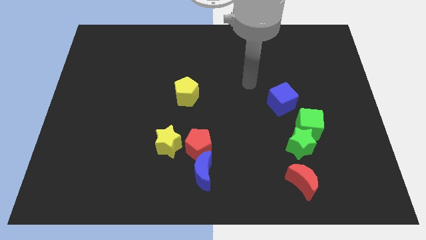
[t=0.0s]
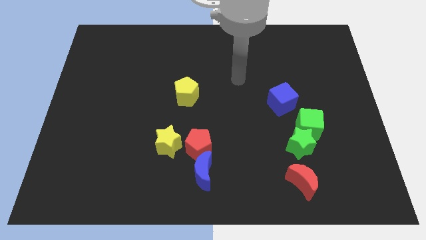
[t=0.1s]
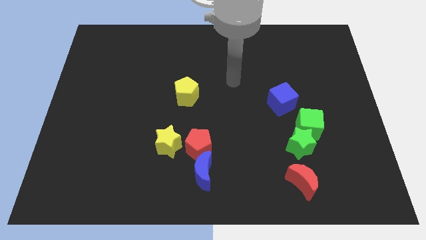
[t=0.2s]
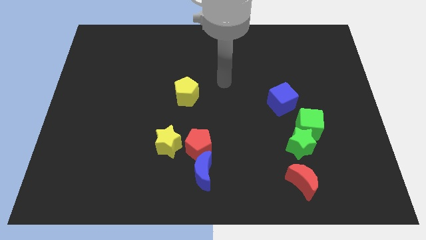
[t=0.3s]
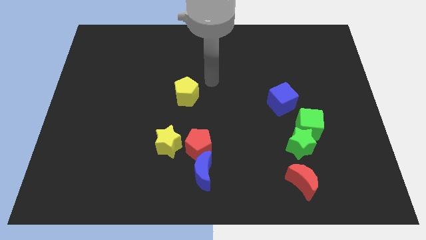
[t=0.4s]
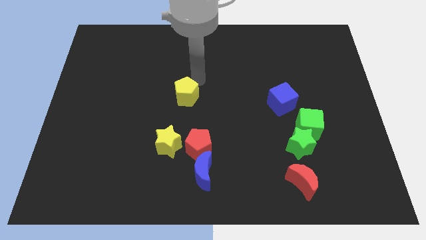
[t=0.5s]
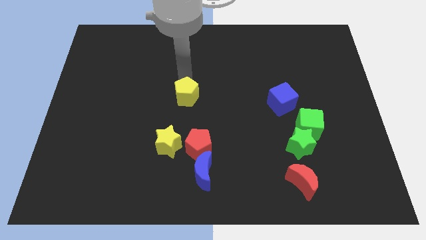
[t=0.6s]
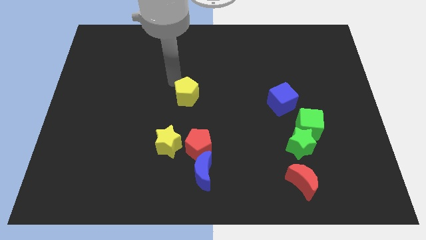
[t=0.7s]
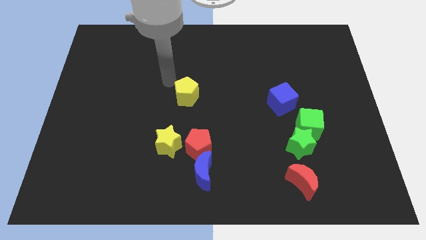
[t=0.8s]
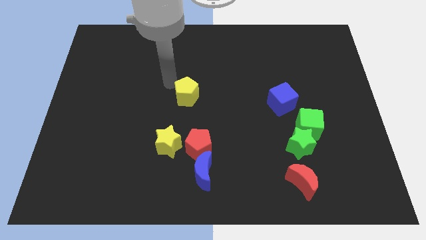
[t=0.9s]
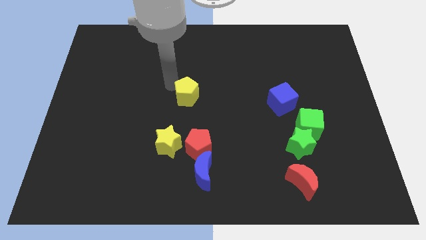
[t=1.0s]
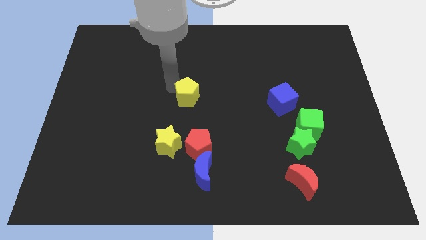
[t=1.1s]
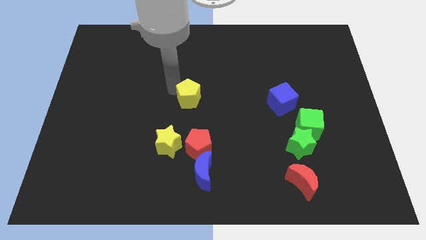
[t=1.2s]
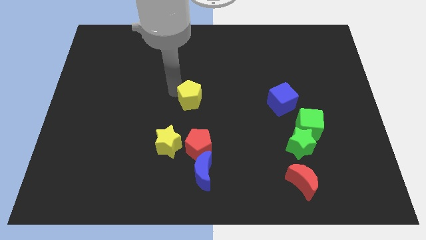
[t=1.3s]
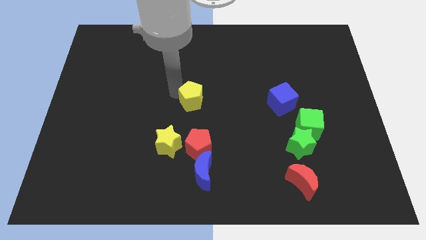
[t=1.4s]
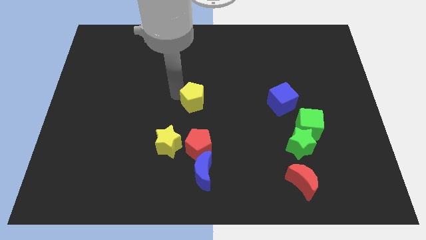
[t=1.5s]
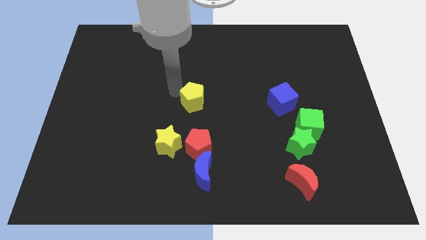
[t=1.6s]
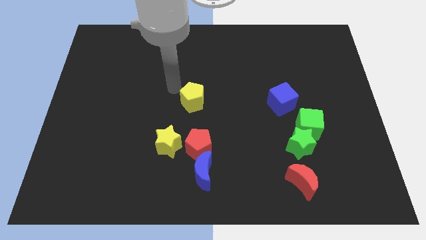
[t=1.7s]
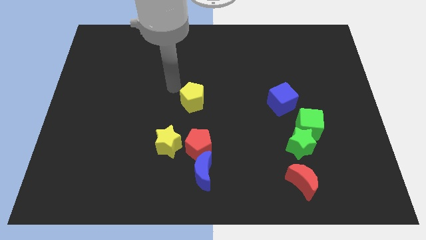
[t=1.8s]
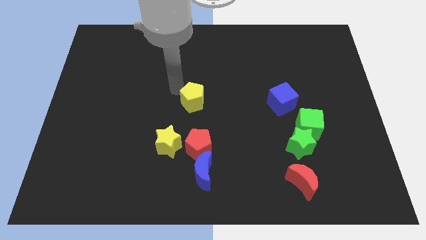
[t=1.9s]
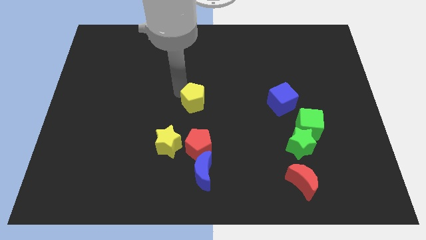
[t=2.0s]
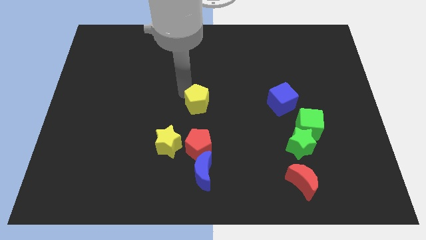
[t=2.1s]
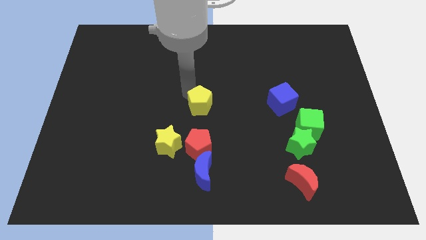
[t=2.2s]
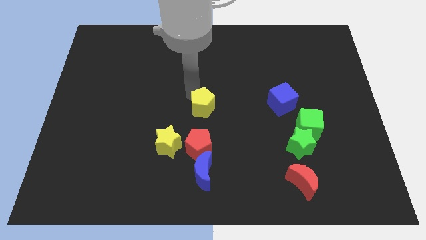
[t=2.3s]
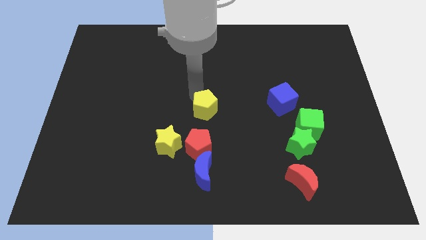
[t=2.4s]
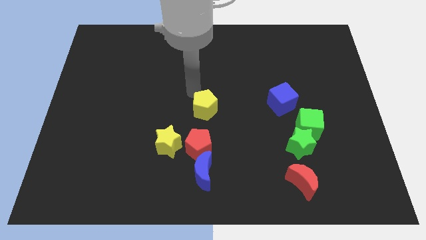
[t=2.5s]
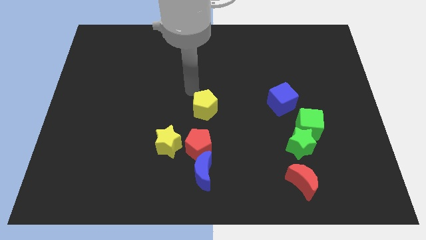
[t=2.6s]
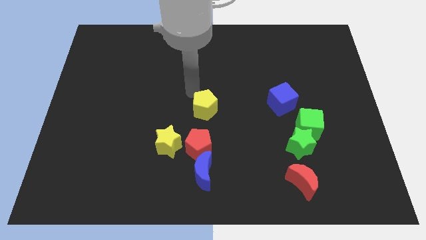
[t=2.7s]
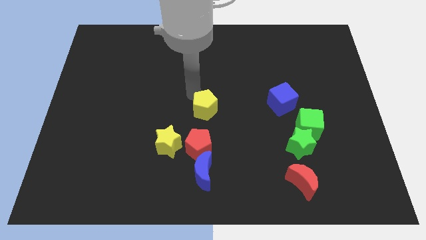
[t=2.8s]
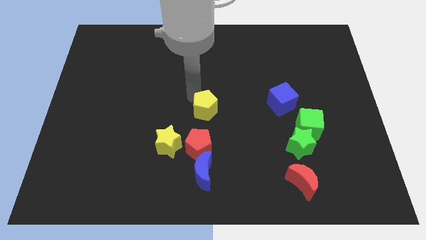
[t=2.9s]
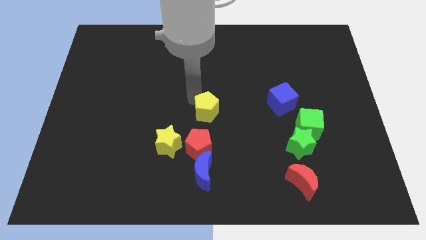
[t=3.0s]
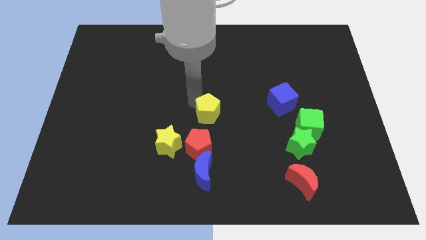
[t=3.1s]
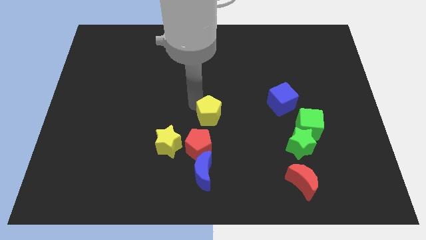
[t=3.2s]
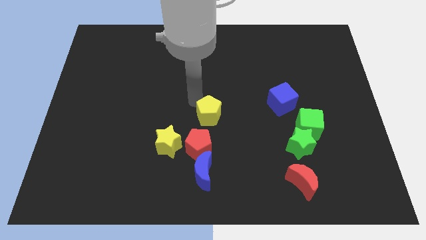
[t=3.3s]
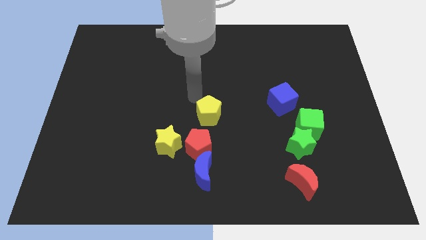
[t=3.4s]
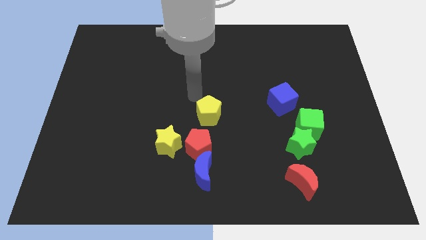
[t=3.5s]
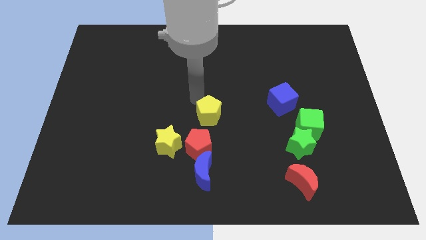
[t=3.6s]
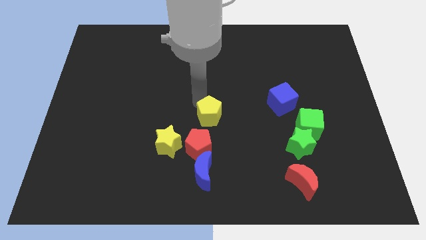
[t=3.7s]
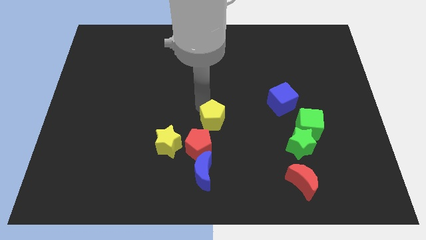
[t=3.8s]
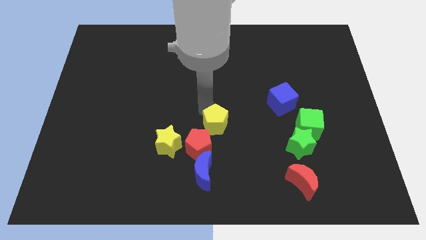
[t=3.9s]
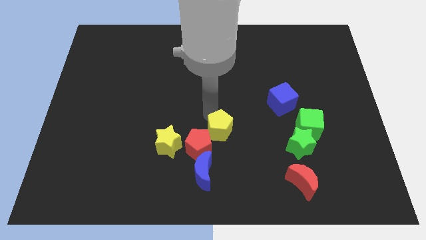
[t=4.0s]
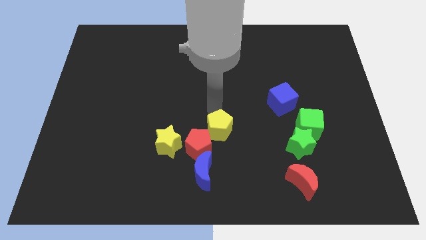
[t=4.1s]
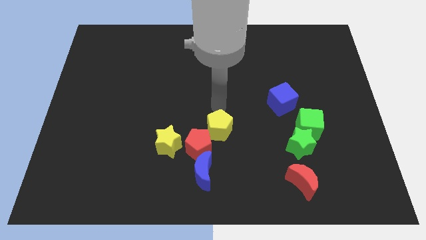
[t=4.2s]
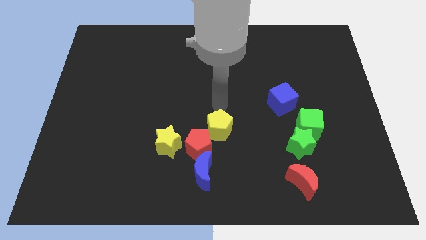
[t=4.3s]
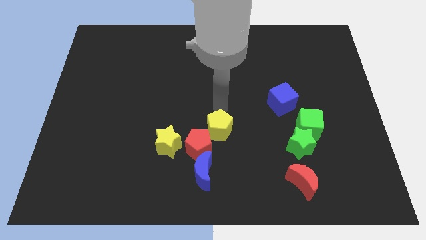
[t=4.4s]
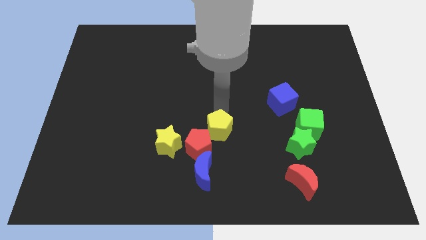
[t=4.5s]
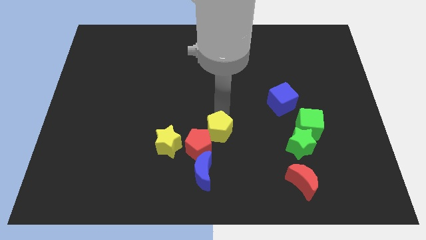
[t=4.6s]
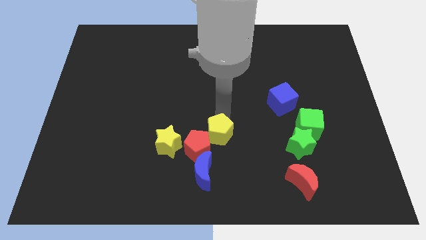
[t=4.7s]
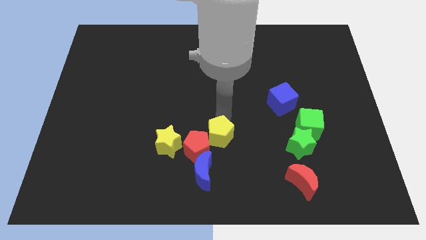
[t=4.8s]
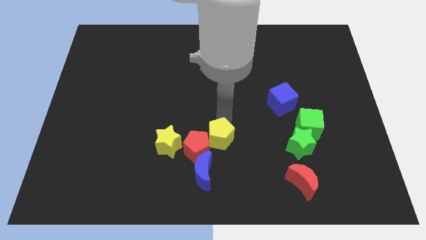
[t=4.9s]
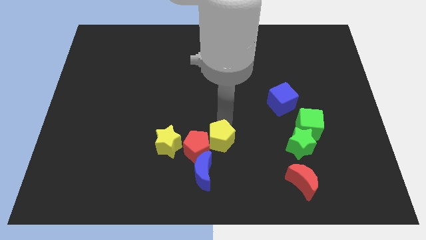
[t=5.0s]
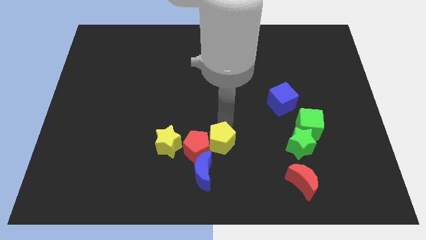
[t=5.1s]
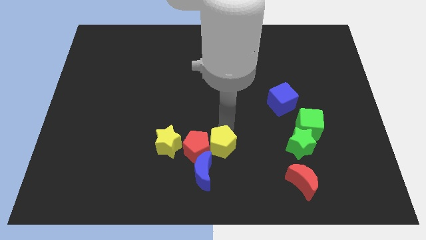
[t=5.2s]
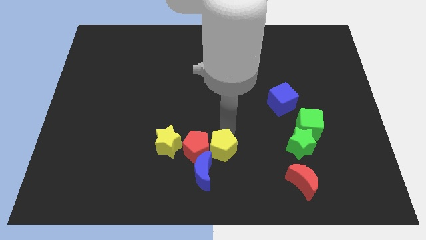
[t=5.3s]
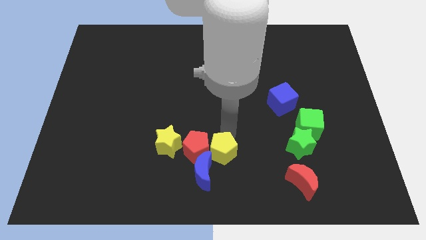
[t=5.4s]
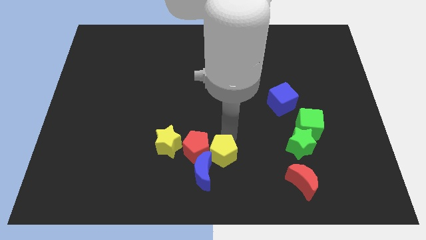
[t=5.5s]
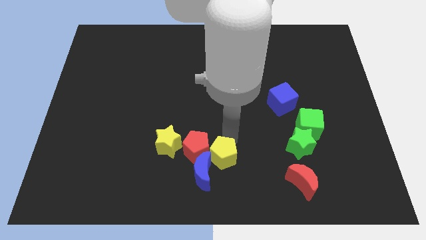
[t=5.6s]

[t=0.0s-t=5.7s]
push the yellow pentagon next to the blue moon
